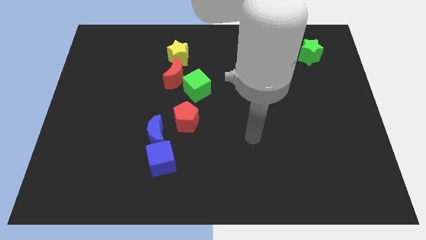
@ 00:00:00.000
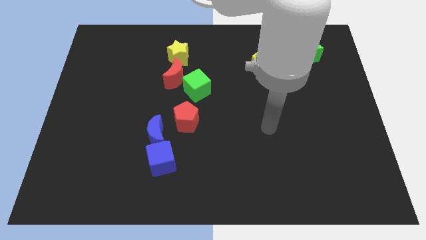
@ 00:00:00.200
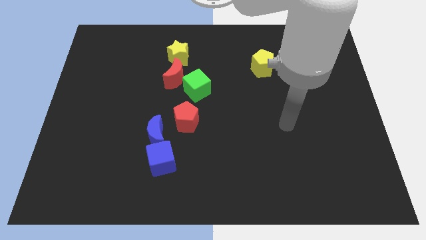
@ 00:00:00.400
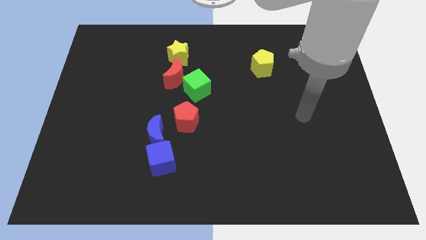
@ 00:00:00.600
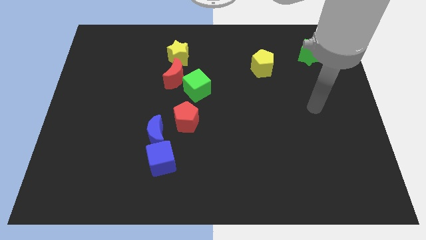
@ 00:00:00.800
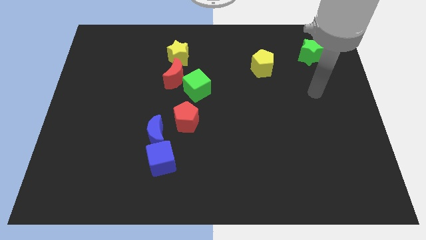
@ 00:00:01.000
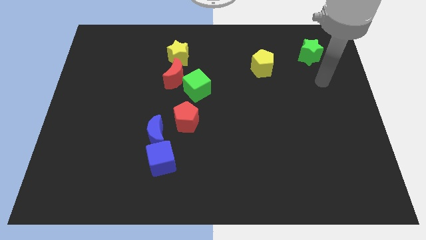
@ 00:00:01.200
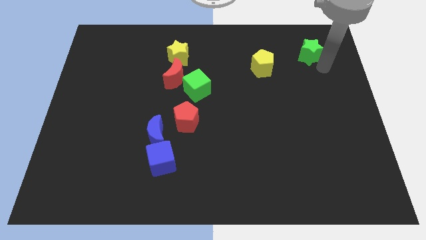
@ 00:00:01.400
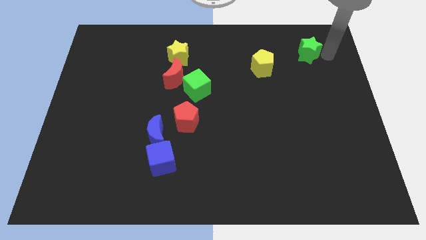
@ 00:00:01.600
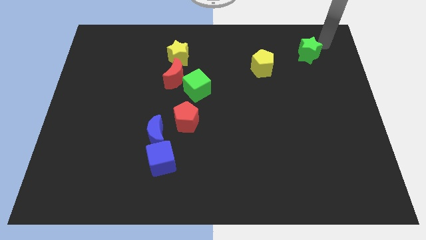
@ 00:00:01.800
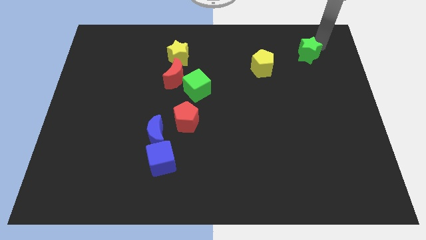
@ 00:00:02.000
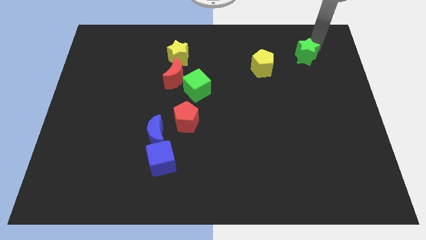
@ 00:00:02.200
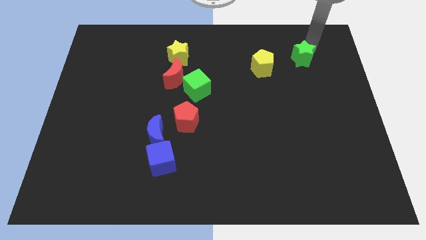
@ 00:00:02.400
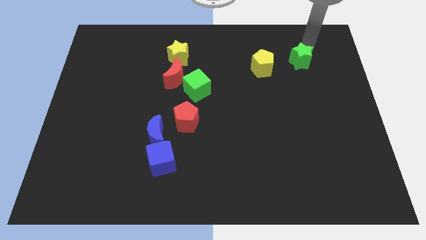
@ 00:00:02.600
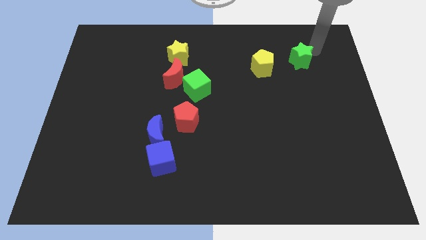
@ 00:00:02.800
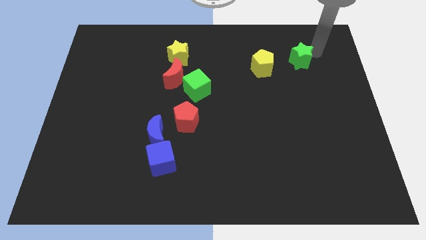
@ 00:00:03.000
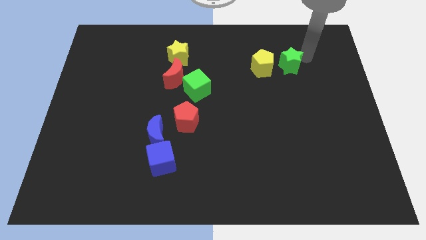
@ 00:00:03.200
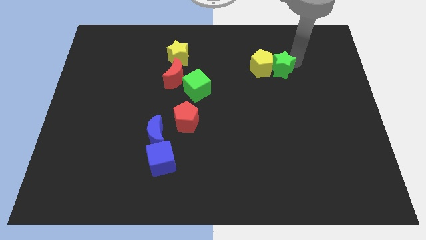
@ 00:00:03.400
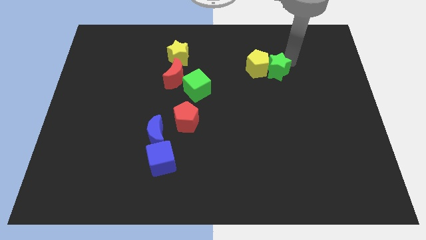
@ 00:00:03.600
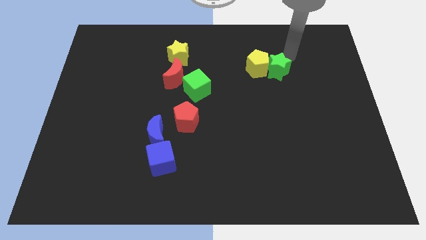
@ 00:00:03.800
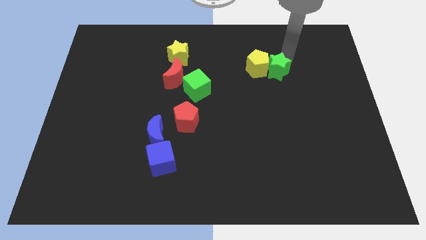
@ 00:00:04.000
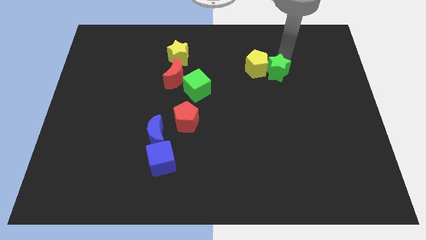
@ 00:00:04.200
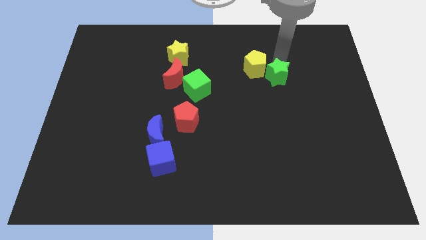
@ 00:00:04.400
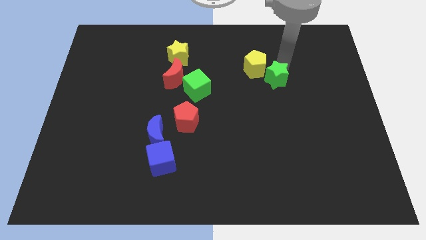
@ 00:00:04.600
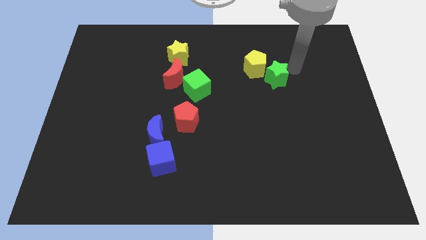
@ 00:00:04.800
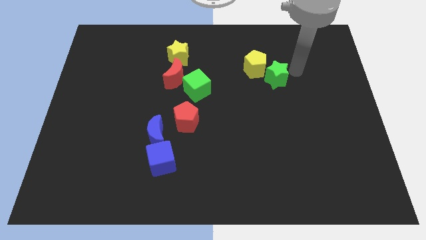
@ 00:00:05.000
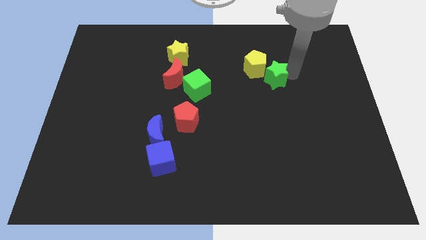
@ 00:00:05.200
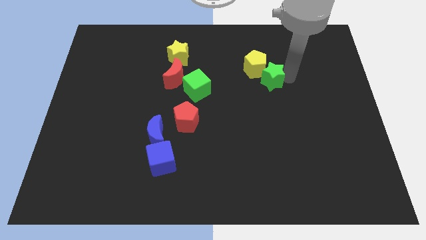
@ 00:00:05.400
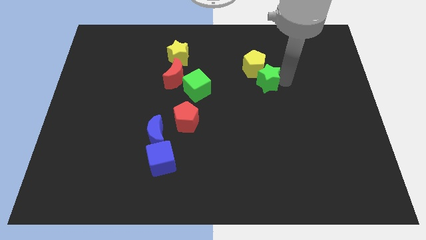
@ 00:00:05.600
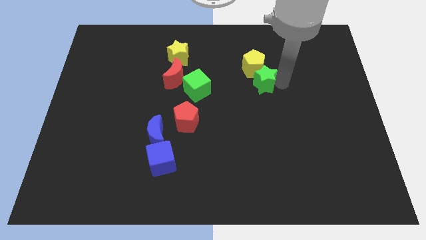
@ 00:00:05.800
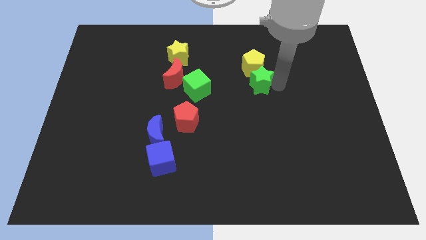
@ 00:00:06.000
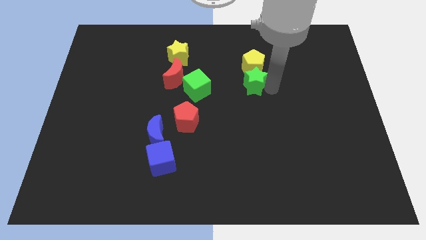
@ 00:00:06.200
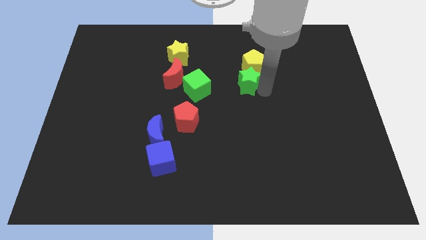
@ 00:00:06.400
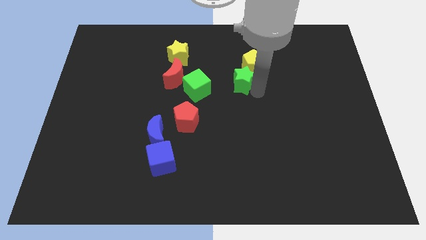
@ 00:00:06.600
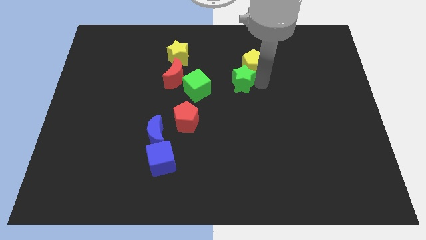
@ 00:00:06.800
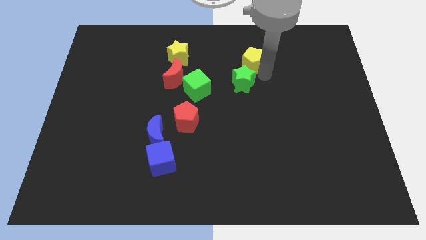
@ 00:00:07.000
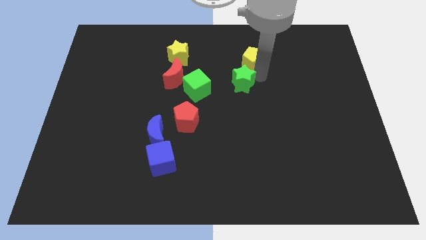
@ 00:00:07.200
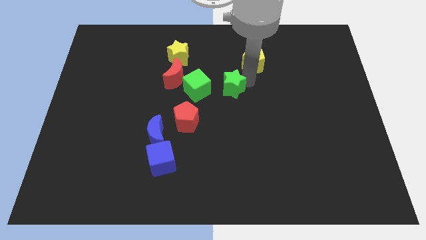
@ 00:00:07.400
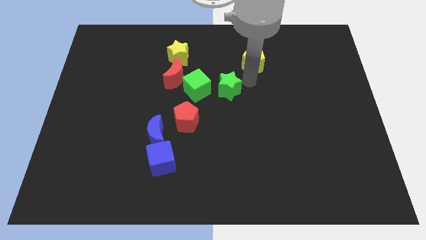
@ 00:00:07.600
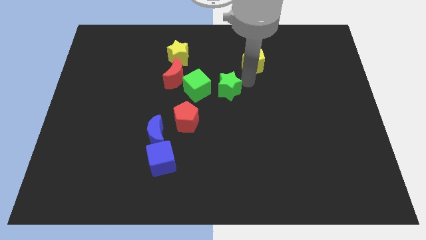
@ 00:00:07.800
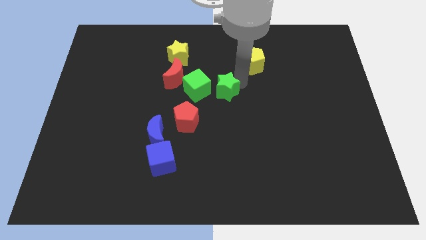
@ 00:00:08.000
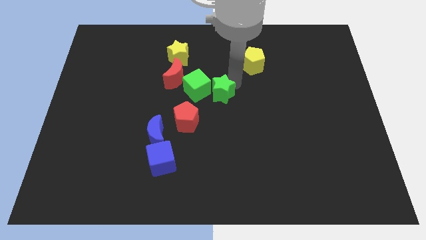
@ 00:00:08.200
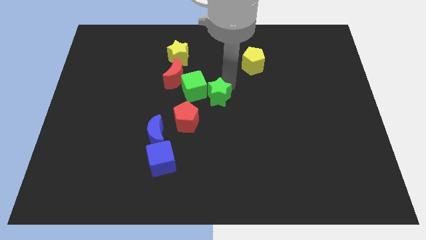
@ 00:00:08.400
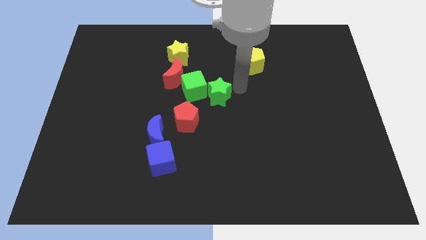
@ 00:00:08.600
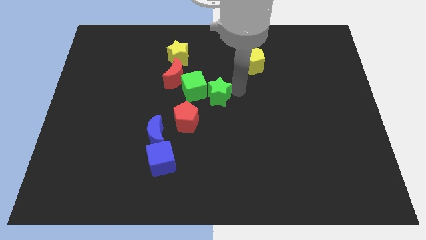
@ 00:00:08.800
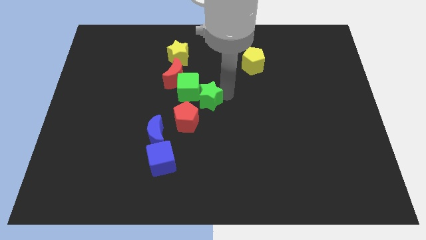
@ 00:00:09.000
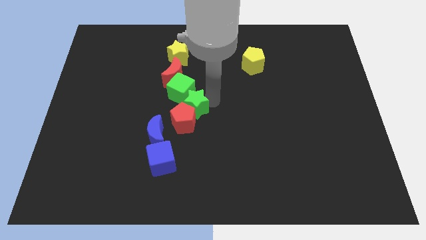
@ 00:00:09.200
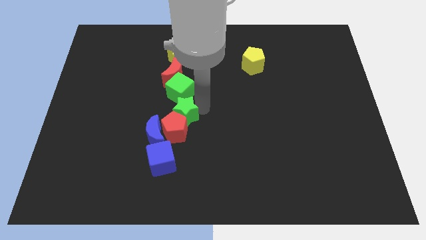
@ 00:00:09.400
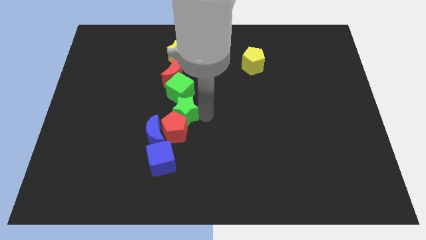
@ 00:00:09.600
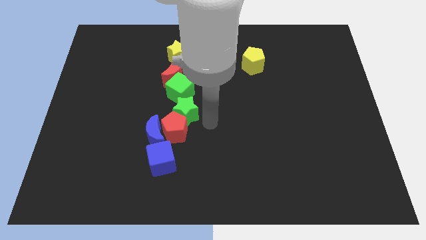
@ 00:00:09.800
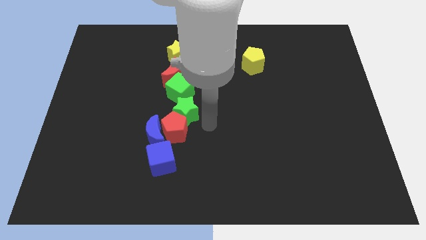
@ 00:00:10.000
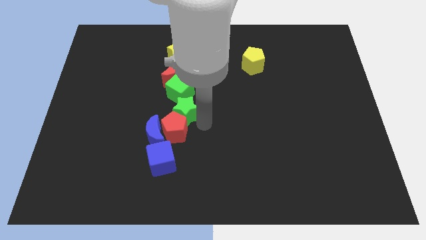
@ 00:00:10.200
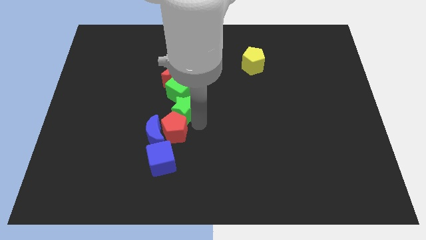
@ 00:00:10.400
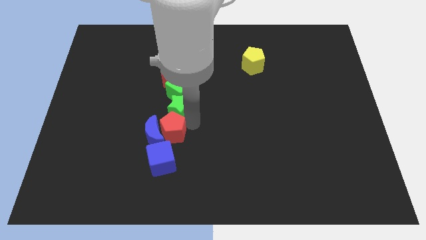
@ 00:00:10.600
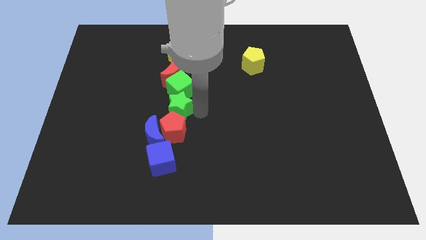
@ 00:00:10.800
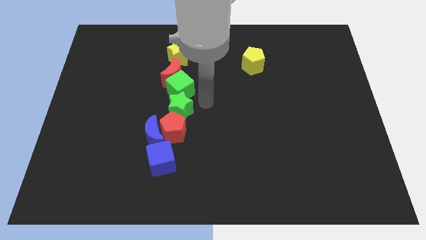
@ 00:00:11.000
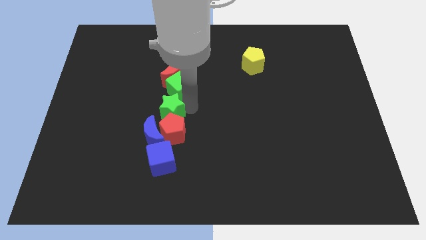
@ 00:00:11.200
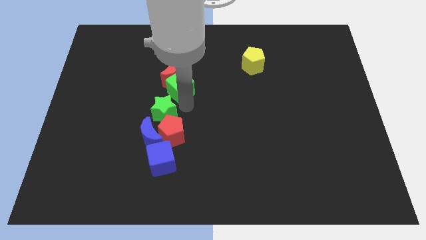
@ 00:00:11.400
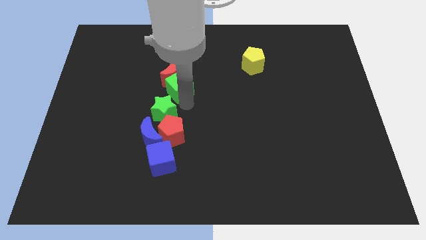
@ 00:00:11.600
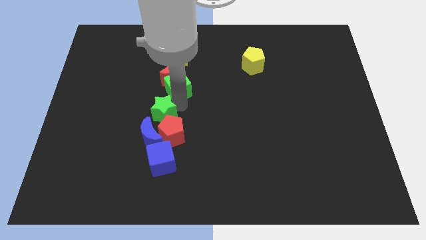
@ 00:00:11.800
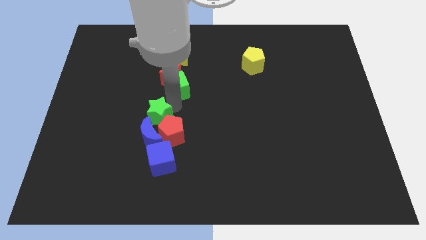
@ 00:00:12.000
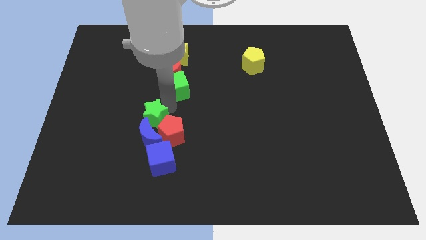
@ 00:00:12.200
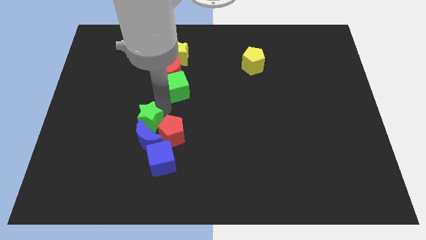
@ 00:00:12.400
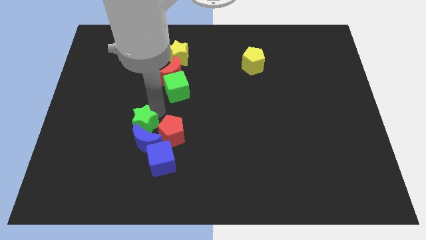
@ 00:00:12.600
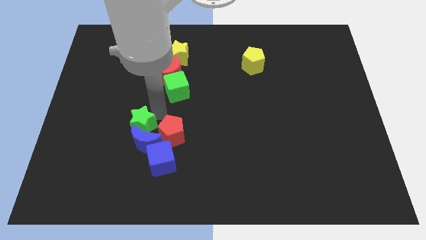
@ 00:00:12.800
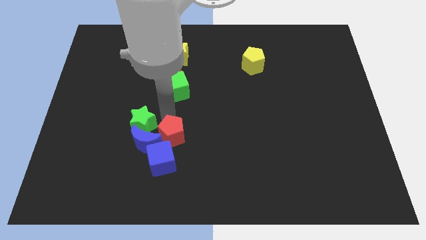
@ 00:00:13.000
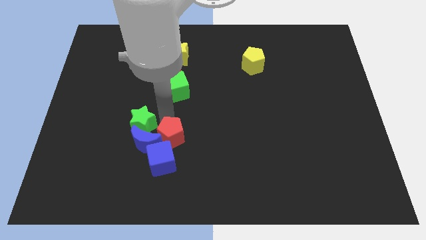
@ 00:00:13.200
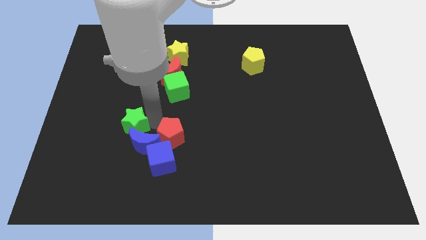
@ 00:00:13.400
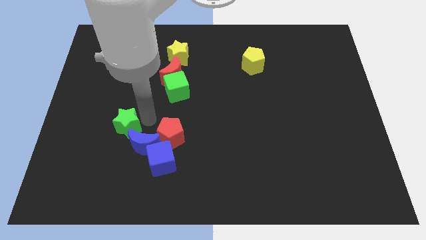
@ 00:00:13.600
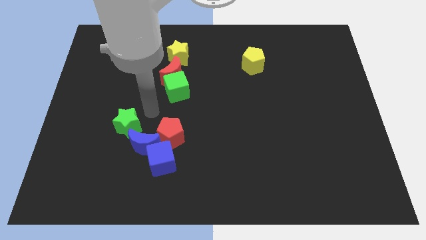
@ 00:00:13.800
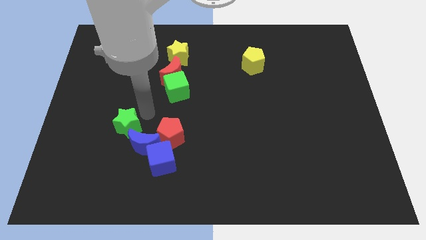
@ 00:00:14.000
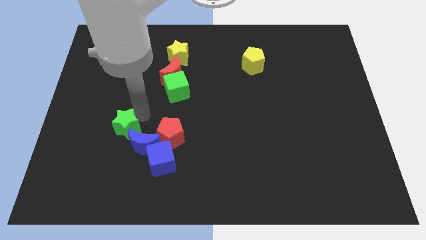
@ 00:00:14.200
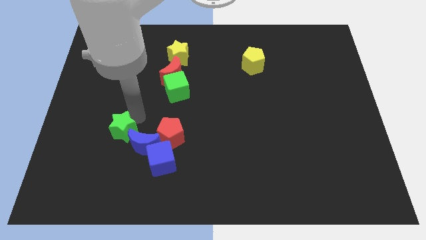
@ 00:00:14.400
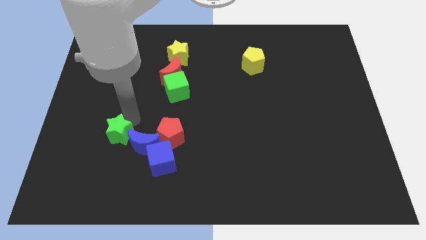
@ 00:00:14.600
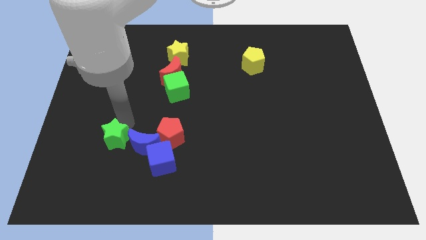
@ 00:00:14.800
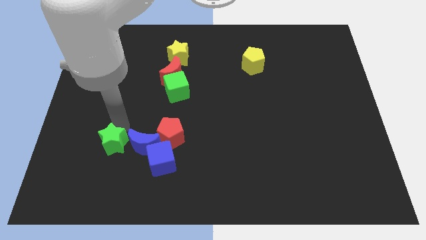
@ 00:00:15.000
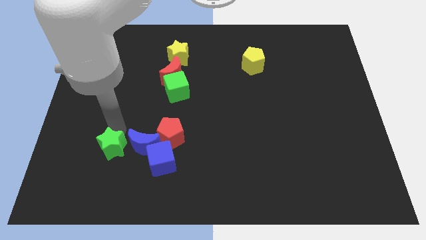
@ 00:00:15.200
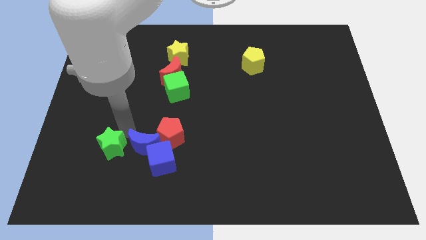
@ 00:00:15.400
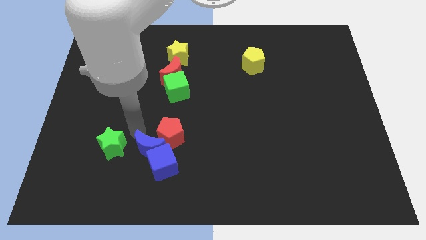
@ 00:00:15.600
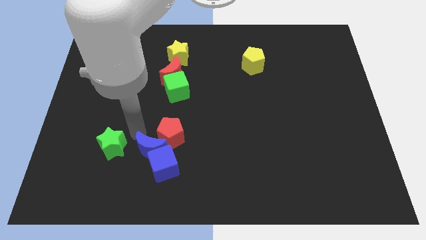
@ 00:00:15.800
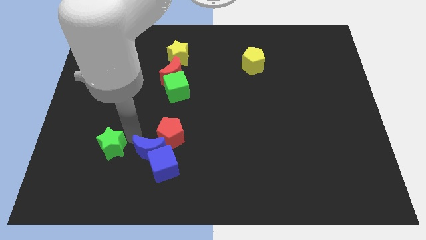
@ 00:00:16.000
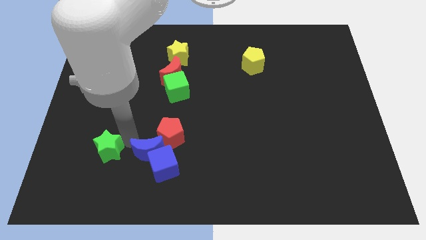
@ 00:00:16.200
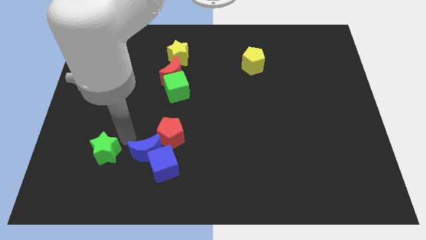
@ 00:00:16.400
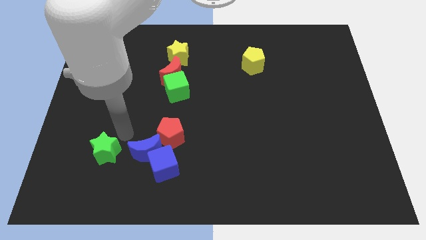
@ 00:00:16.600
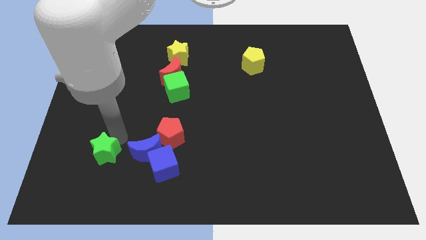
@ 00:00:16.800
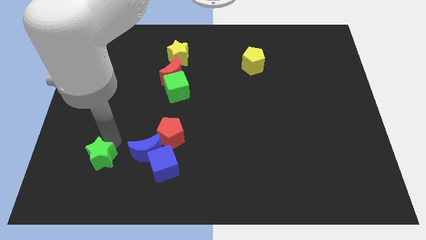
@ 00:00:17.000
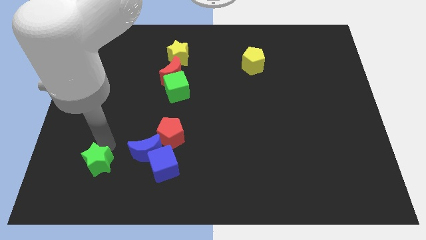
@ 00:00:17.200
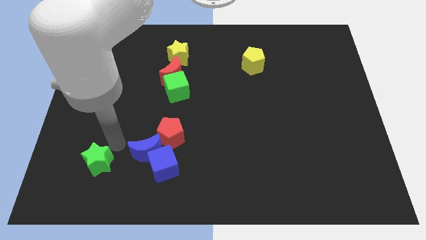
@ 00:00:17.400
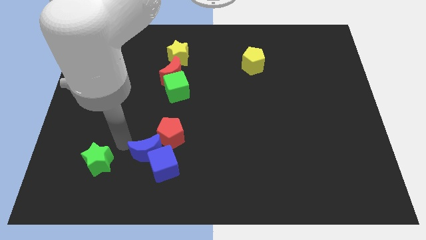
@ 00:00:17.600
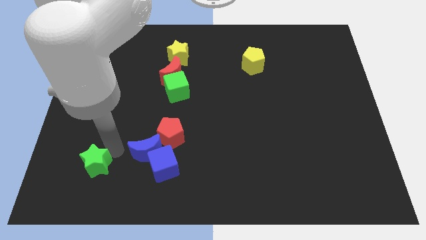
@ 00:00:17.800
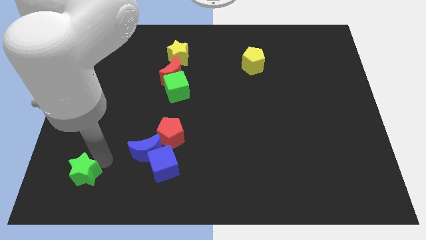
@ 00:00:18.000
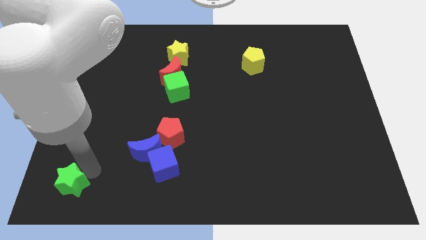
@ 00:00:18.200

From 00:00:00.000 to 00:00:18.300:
slide the green star to the lower left corner
